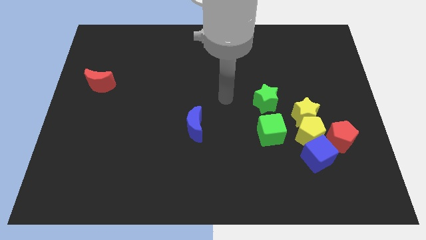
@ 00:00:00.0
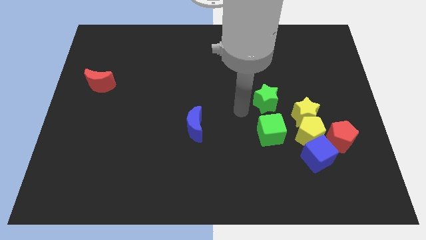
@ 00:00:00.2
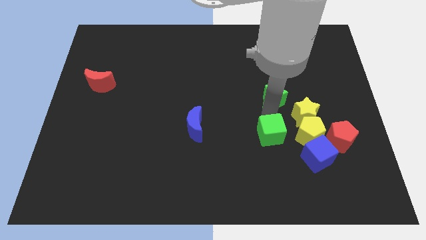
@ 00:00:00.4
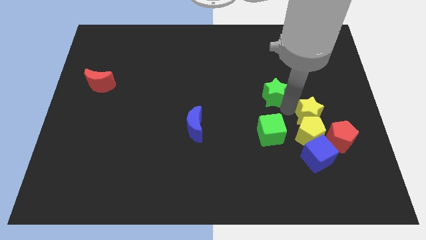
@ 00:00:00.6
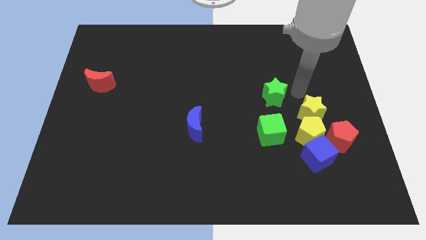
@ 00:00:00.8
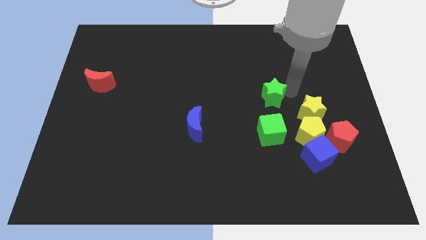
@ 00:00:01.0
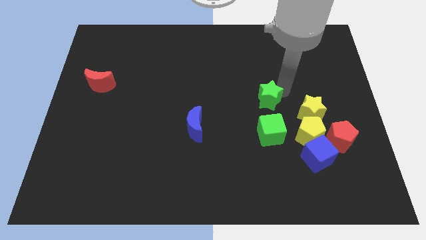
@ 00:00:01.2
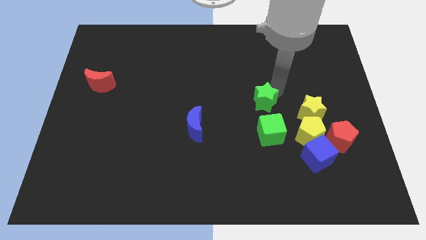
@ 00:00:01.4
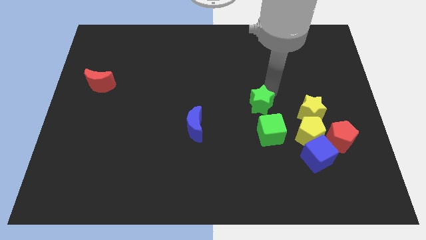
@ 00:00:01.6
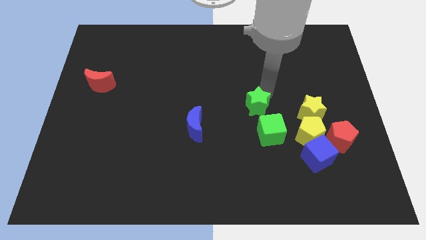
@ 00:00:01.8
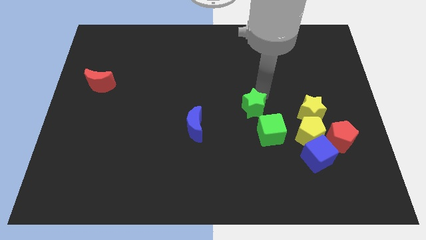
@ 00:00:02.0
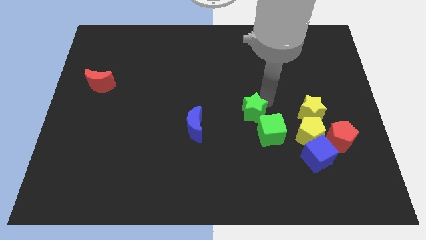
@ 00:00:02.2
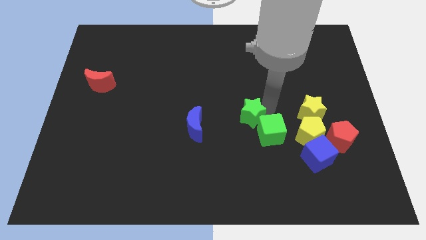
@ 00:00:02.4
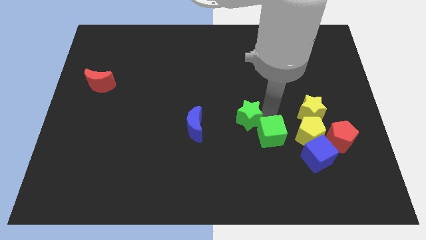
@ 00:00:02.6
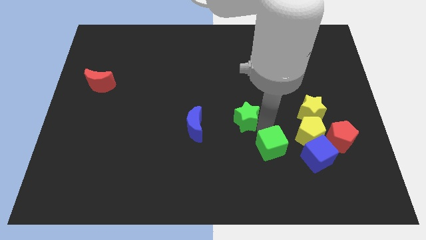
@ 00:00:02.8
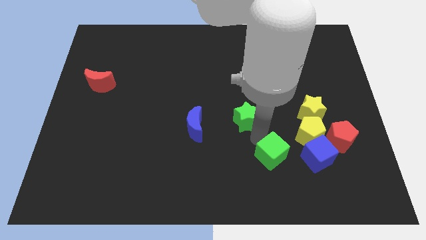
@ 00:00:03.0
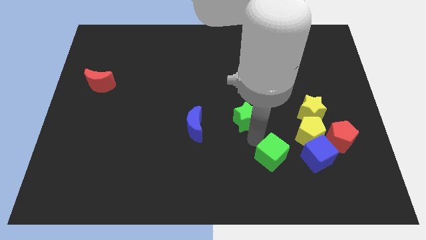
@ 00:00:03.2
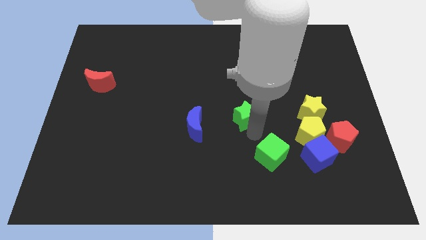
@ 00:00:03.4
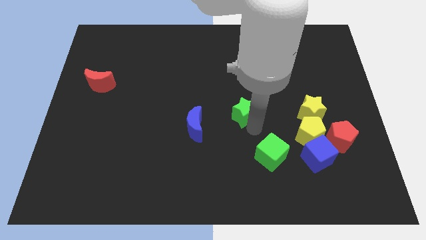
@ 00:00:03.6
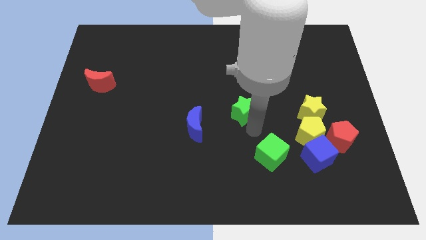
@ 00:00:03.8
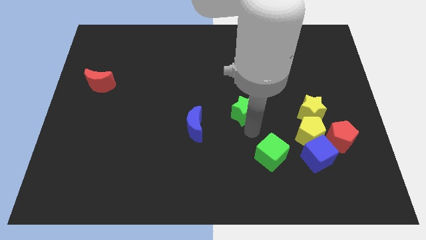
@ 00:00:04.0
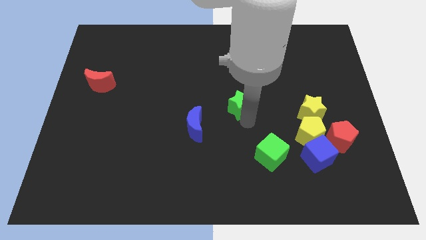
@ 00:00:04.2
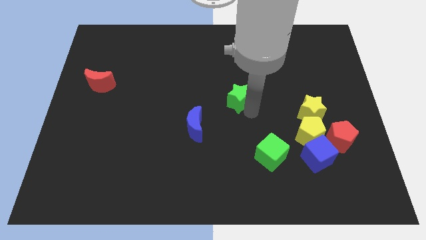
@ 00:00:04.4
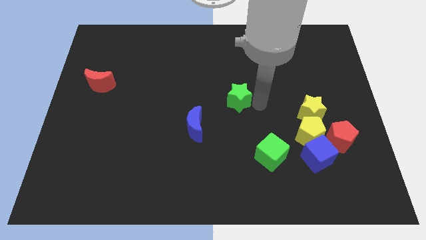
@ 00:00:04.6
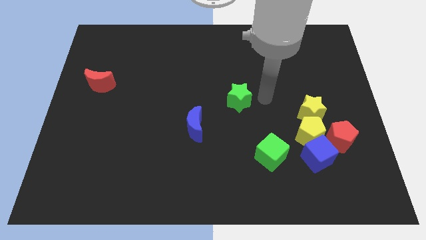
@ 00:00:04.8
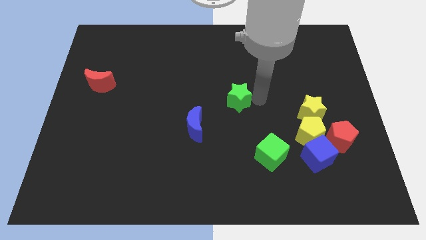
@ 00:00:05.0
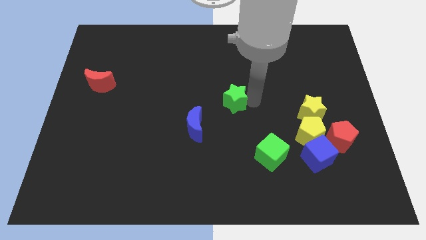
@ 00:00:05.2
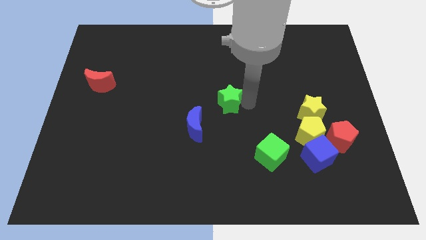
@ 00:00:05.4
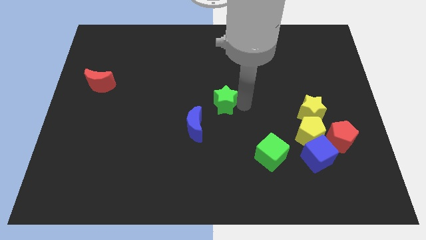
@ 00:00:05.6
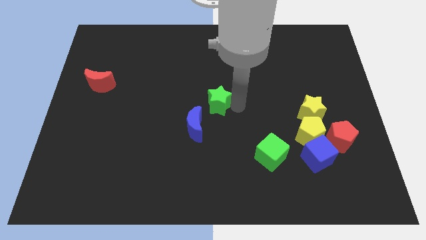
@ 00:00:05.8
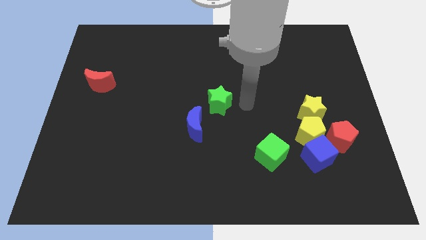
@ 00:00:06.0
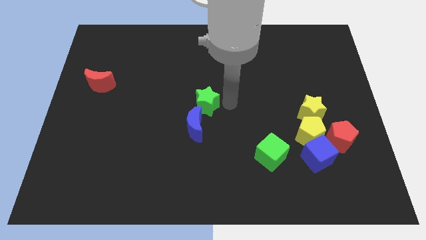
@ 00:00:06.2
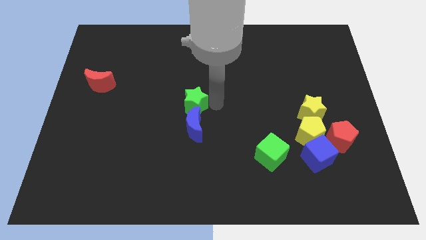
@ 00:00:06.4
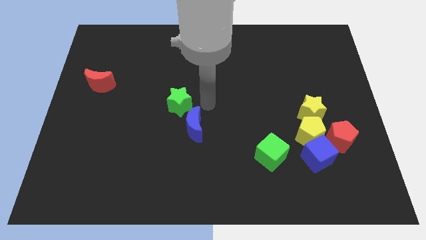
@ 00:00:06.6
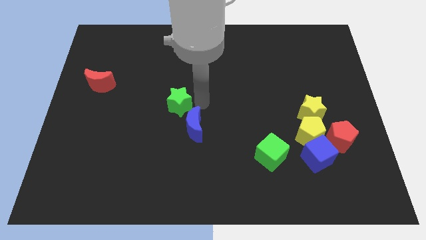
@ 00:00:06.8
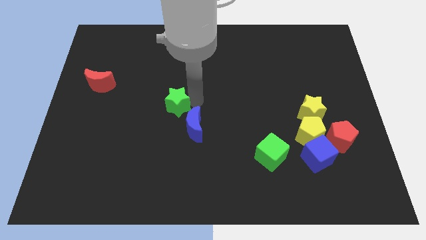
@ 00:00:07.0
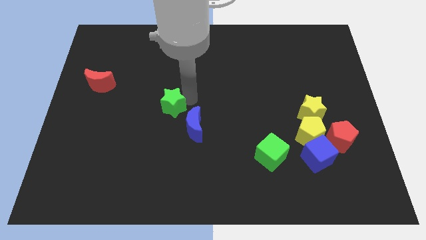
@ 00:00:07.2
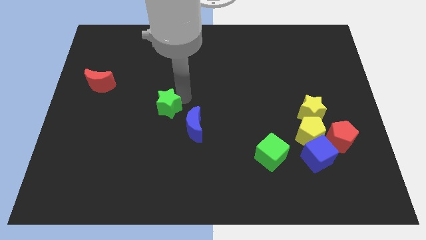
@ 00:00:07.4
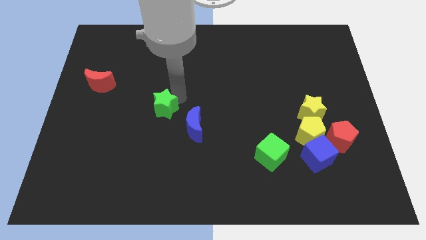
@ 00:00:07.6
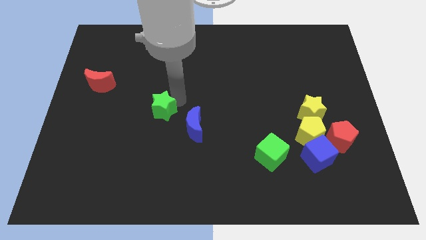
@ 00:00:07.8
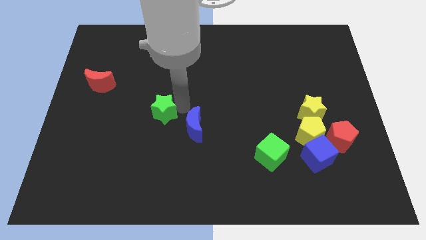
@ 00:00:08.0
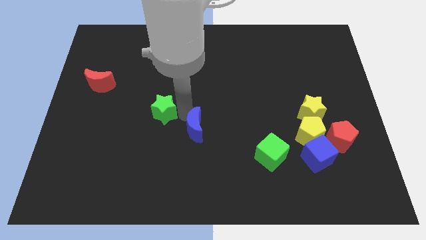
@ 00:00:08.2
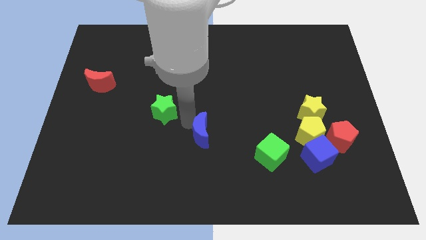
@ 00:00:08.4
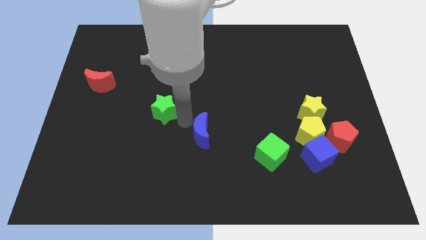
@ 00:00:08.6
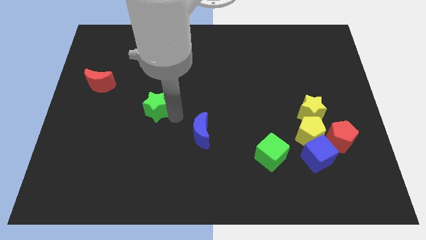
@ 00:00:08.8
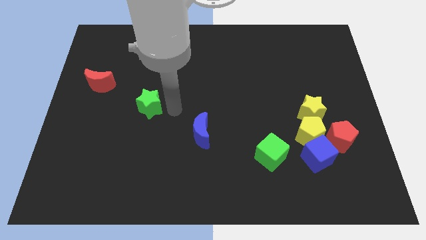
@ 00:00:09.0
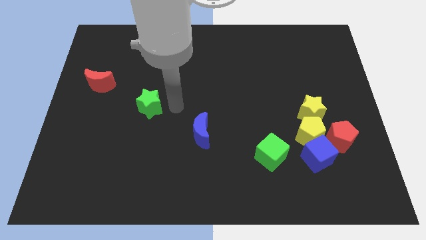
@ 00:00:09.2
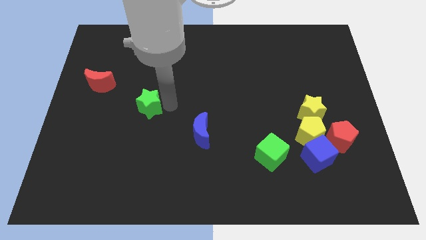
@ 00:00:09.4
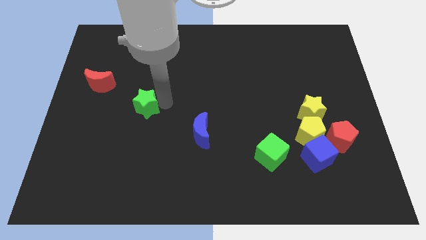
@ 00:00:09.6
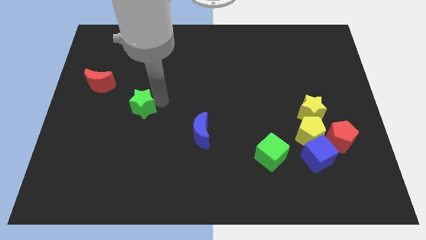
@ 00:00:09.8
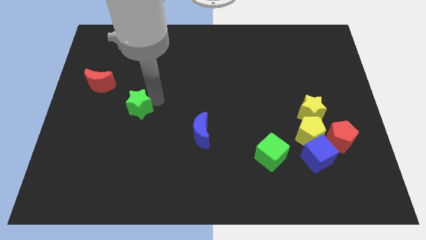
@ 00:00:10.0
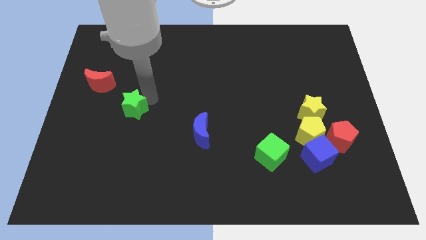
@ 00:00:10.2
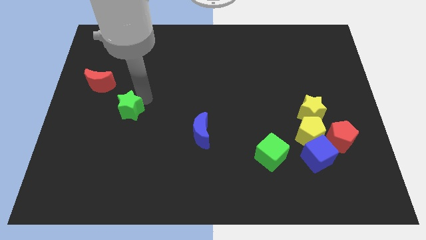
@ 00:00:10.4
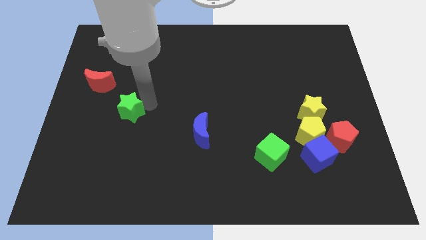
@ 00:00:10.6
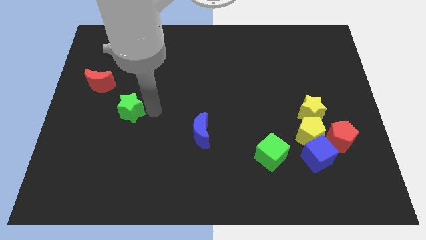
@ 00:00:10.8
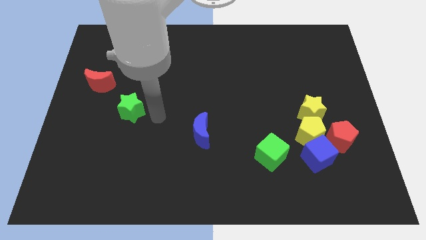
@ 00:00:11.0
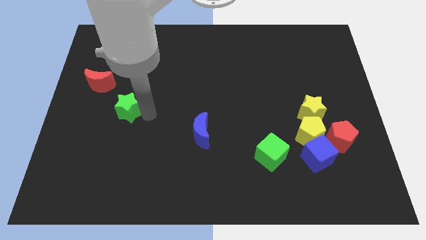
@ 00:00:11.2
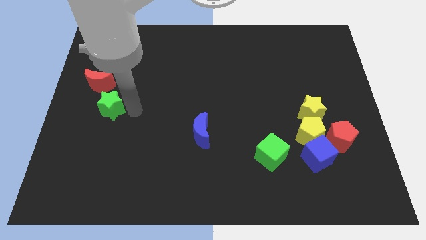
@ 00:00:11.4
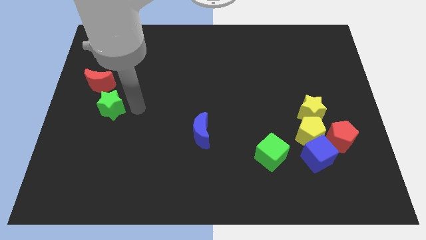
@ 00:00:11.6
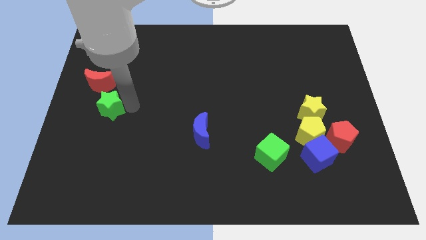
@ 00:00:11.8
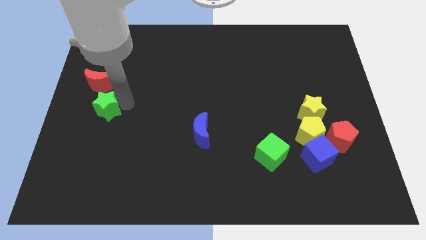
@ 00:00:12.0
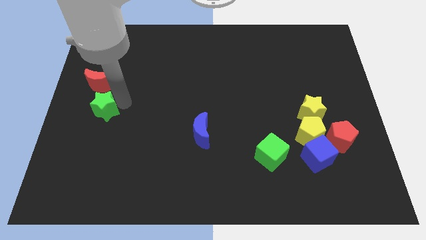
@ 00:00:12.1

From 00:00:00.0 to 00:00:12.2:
push the green star to the center left
